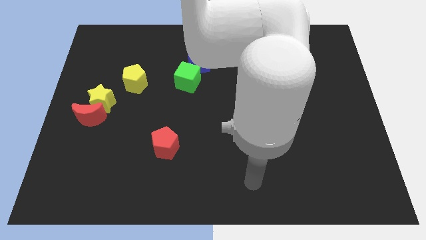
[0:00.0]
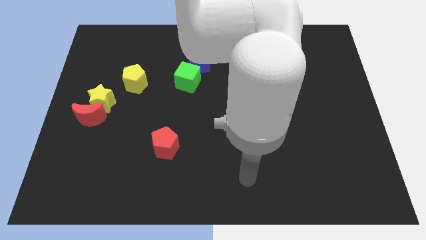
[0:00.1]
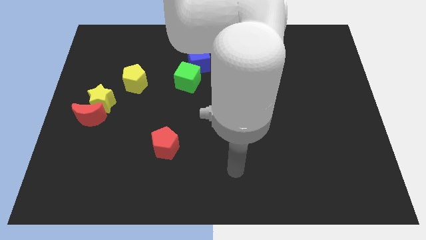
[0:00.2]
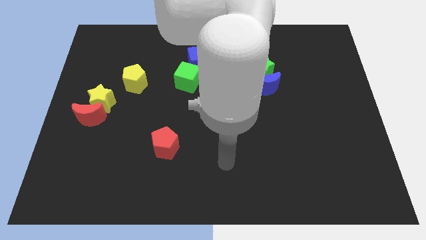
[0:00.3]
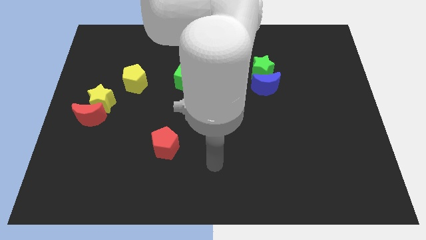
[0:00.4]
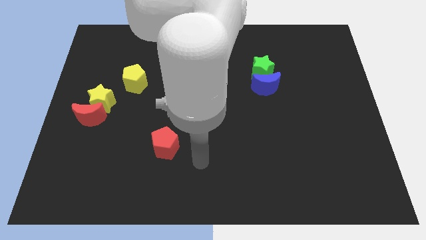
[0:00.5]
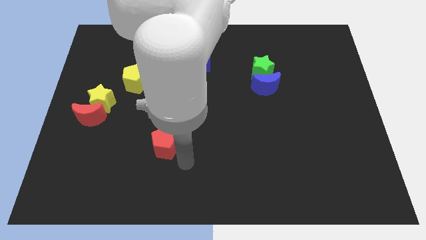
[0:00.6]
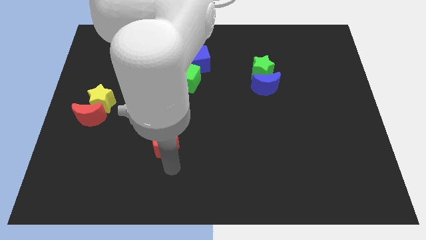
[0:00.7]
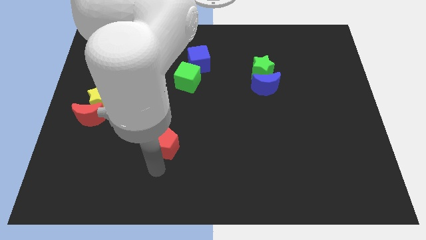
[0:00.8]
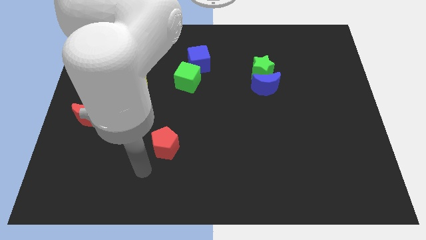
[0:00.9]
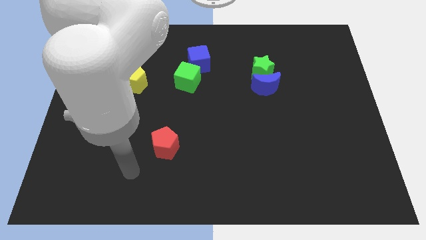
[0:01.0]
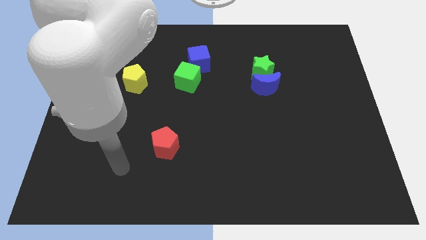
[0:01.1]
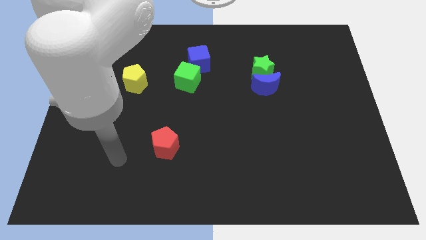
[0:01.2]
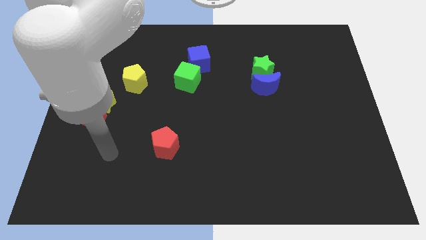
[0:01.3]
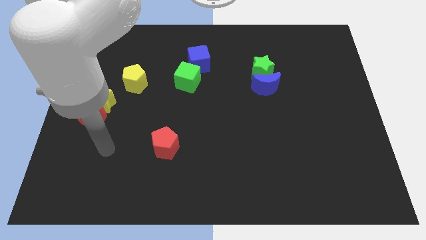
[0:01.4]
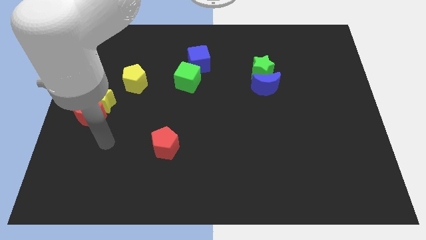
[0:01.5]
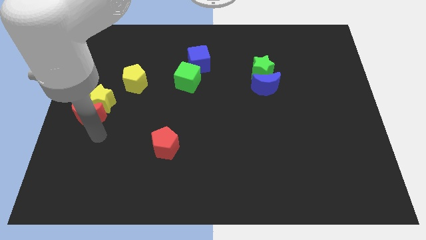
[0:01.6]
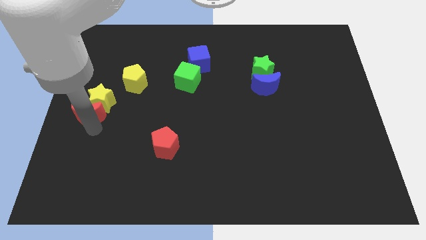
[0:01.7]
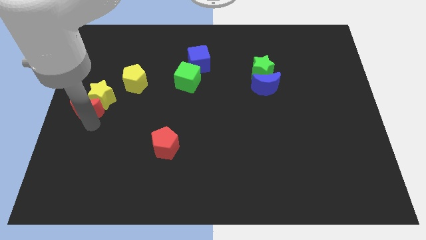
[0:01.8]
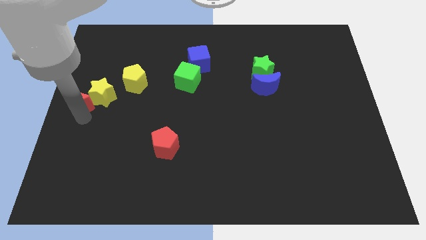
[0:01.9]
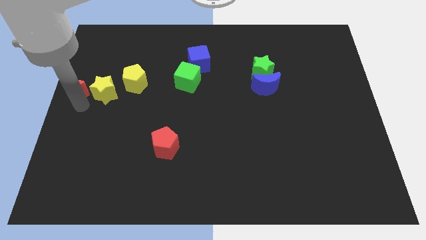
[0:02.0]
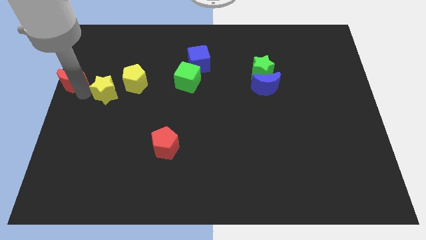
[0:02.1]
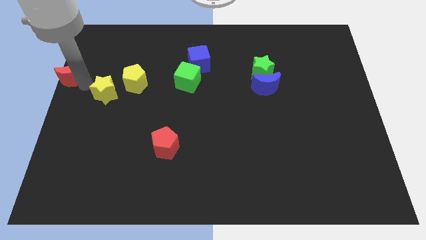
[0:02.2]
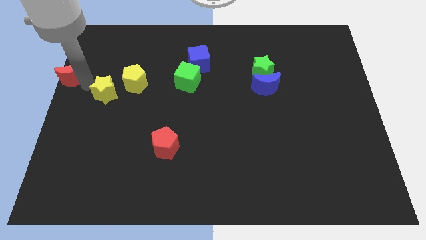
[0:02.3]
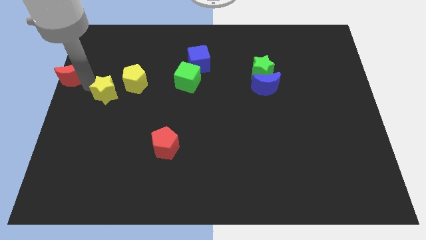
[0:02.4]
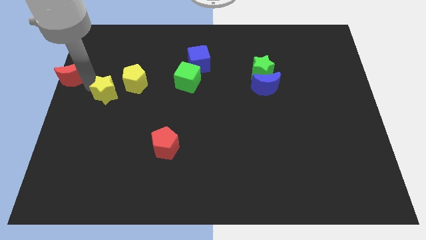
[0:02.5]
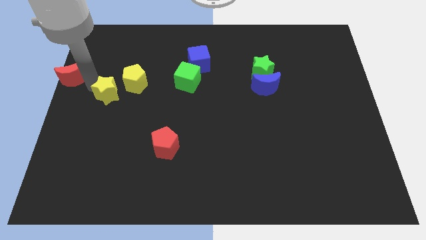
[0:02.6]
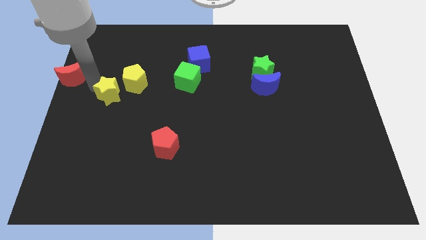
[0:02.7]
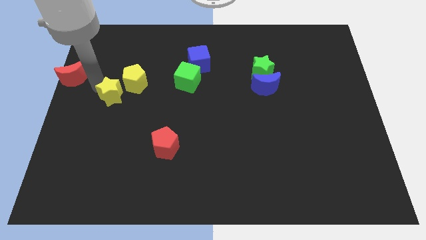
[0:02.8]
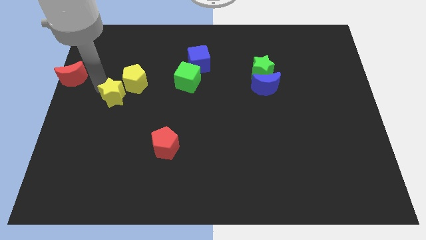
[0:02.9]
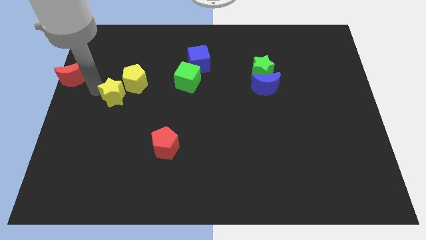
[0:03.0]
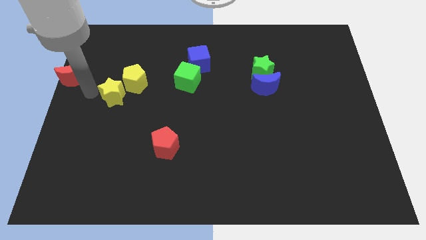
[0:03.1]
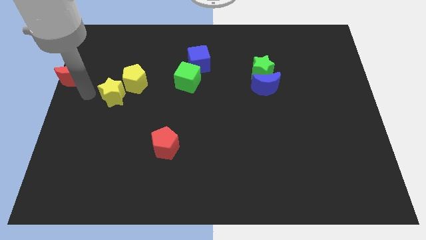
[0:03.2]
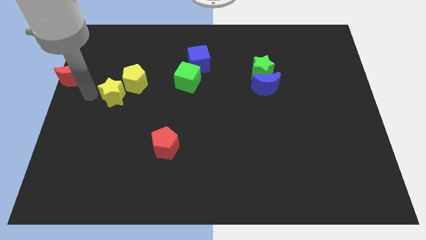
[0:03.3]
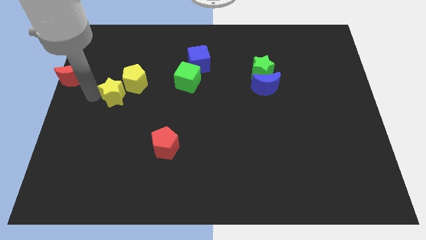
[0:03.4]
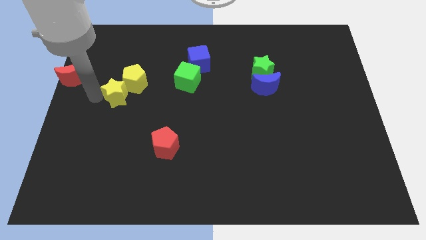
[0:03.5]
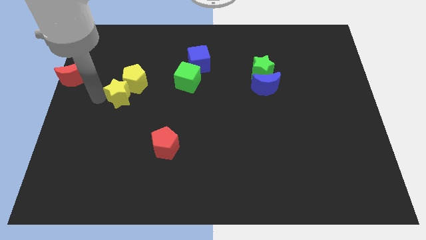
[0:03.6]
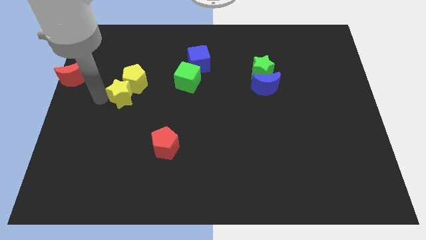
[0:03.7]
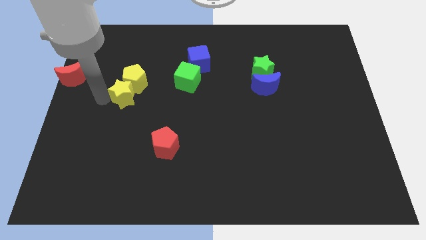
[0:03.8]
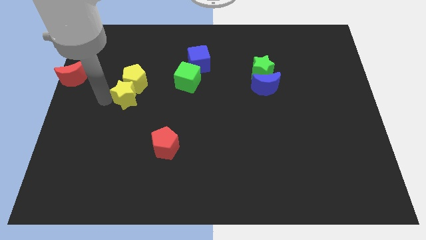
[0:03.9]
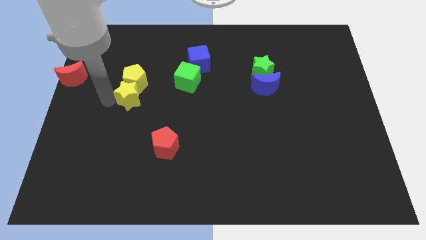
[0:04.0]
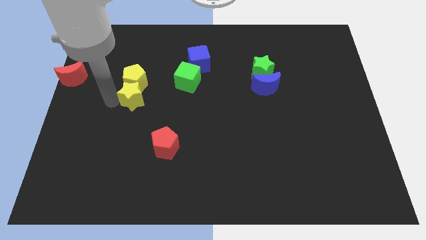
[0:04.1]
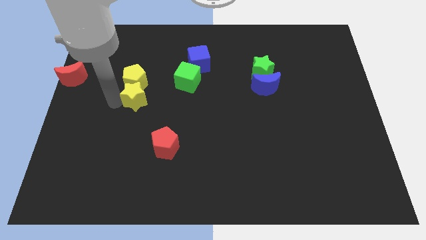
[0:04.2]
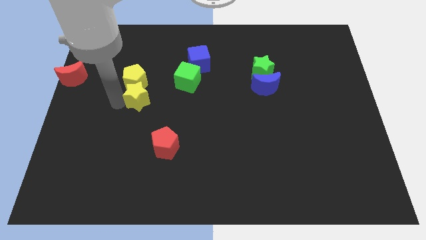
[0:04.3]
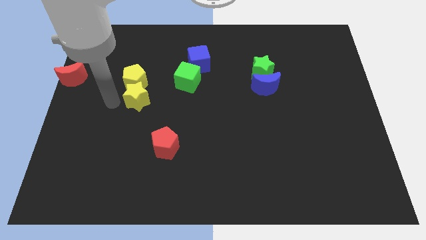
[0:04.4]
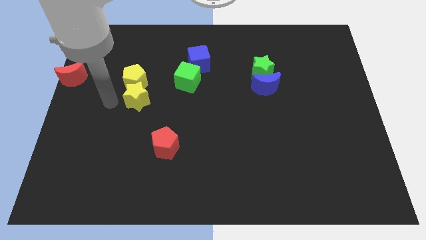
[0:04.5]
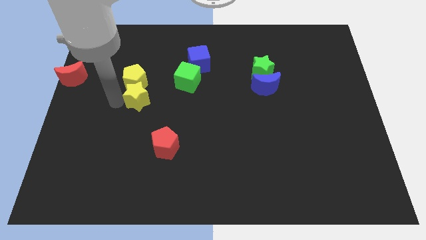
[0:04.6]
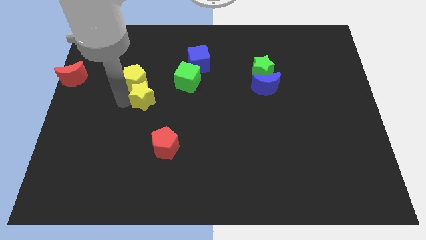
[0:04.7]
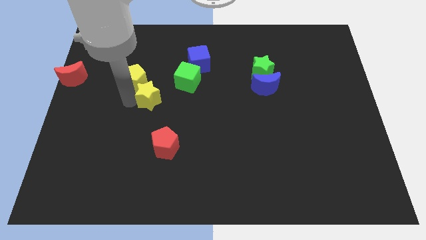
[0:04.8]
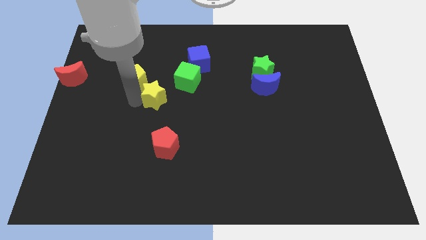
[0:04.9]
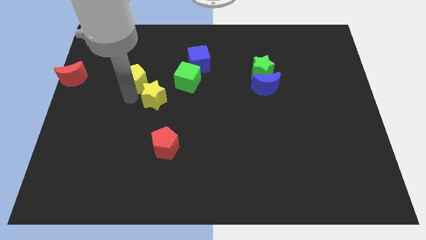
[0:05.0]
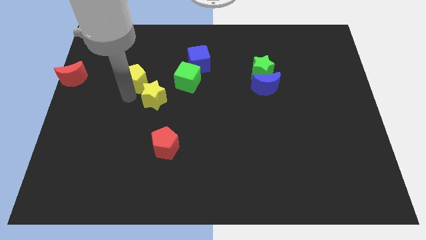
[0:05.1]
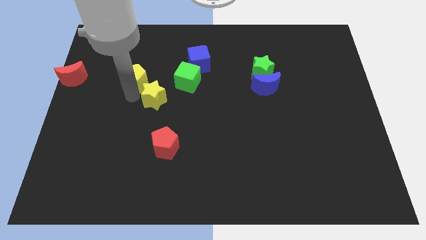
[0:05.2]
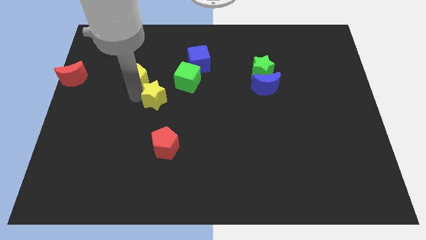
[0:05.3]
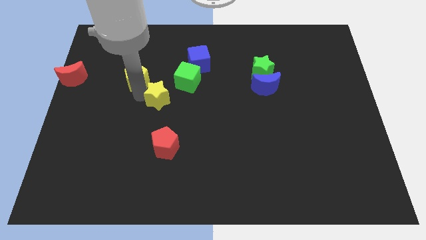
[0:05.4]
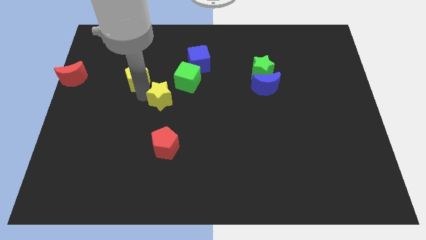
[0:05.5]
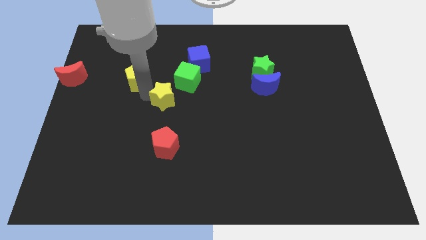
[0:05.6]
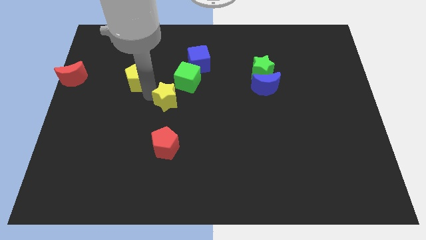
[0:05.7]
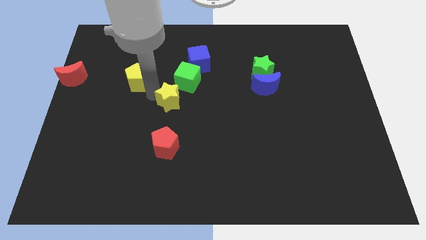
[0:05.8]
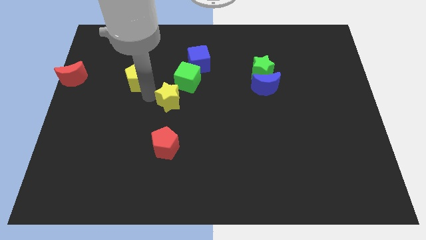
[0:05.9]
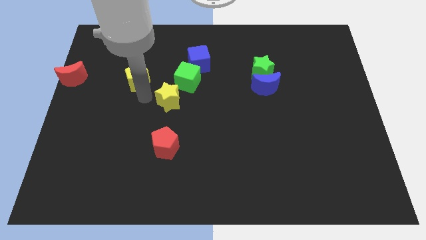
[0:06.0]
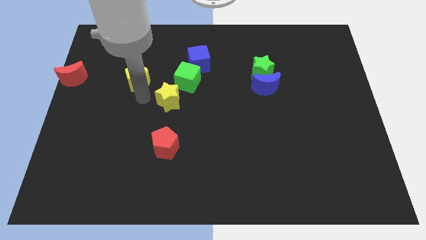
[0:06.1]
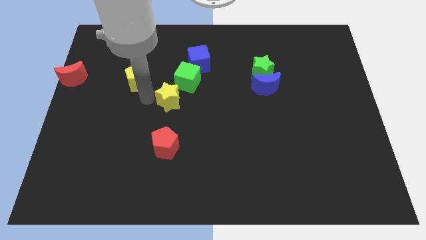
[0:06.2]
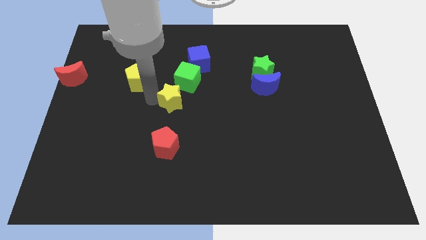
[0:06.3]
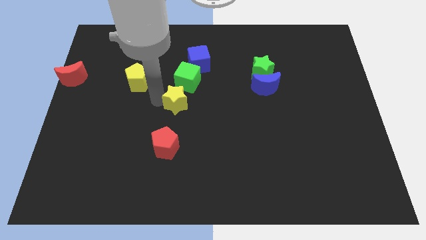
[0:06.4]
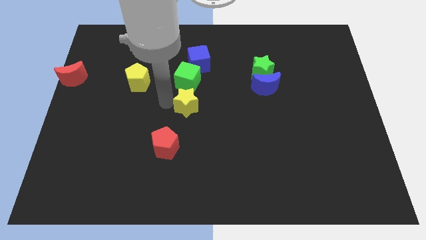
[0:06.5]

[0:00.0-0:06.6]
slide the yellow star right

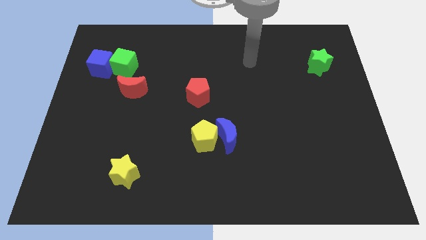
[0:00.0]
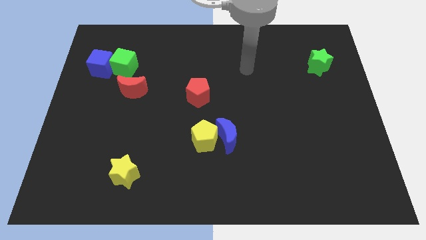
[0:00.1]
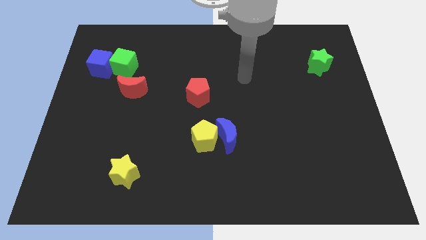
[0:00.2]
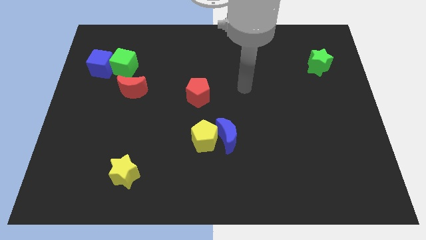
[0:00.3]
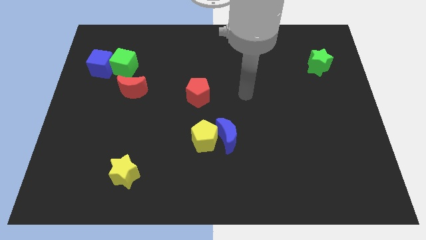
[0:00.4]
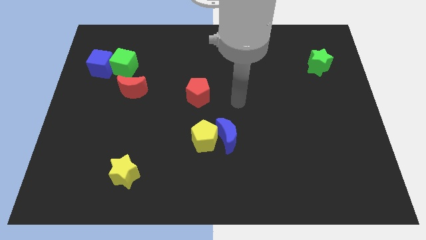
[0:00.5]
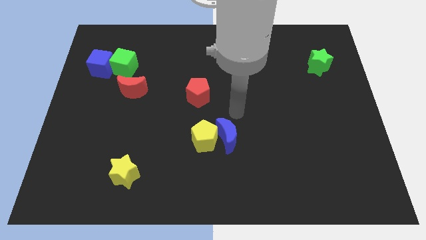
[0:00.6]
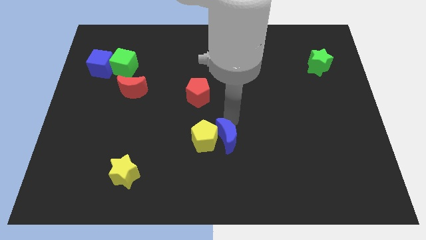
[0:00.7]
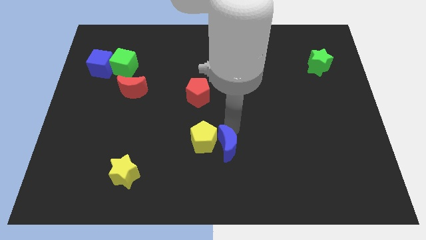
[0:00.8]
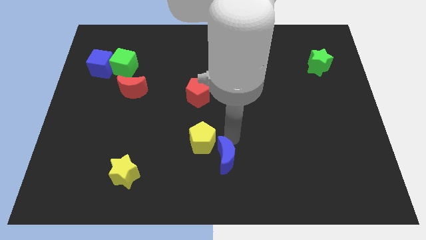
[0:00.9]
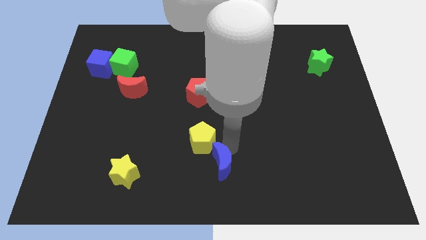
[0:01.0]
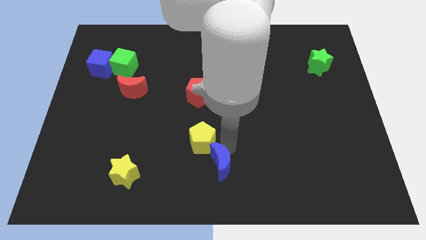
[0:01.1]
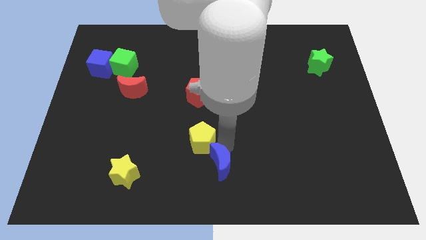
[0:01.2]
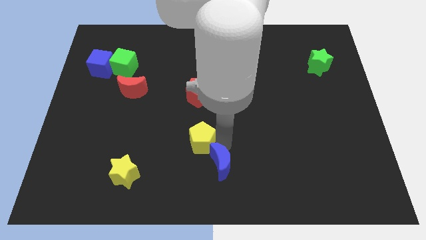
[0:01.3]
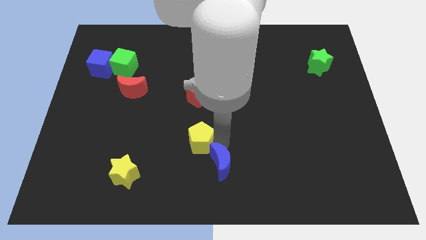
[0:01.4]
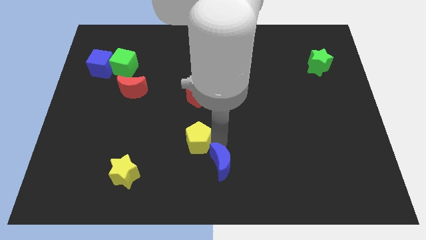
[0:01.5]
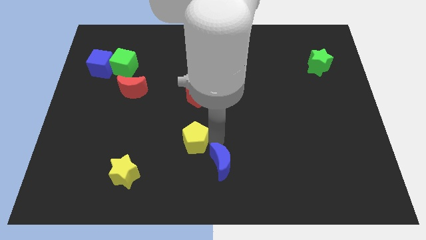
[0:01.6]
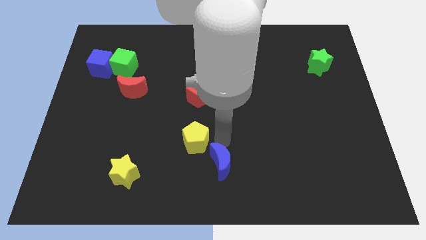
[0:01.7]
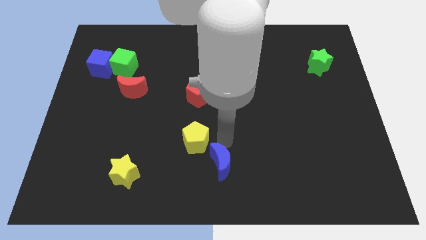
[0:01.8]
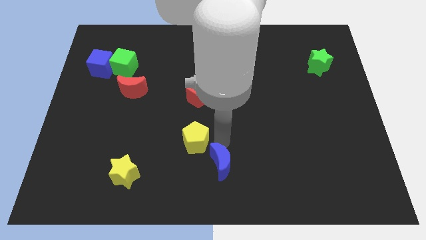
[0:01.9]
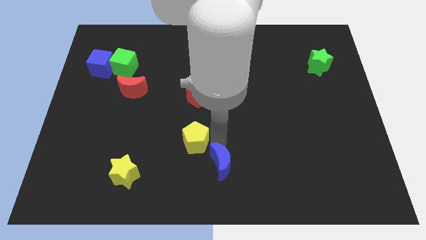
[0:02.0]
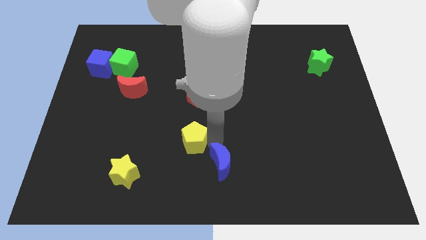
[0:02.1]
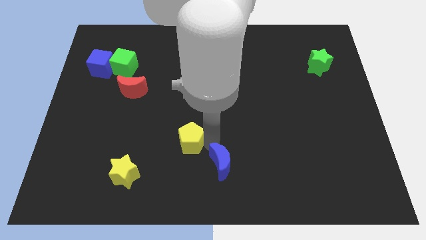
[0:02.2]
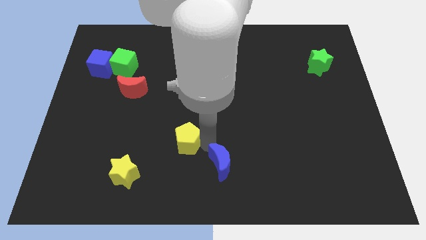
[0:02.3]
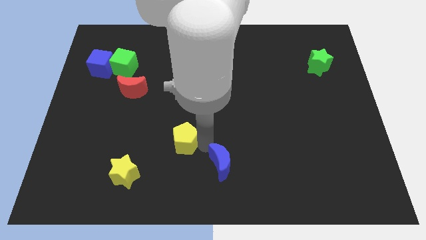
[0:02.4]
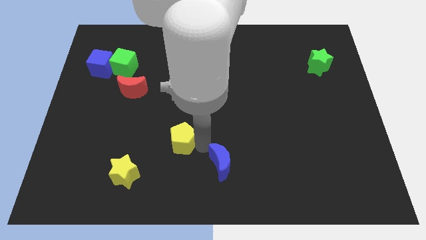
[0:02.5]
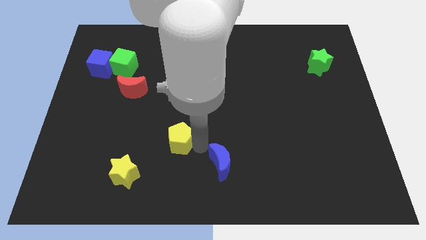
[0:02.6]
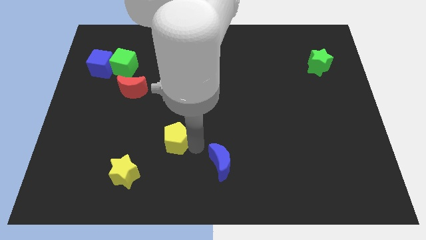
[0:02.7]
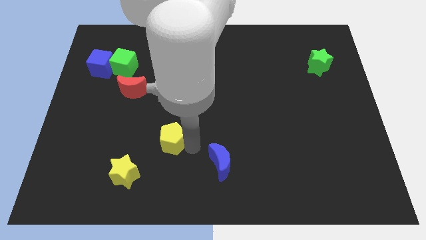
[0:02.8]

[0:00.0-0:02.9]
move the yellow pentagon a bit to the left
